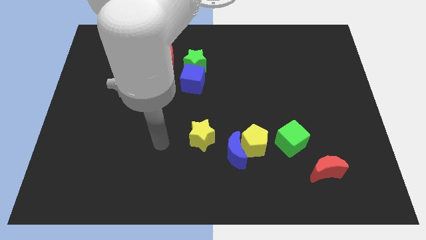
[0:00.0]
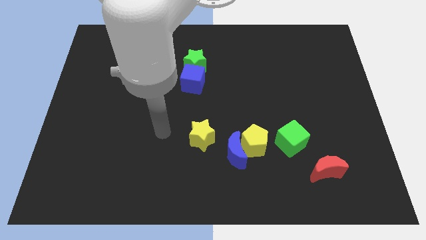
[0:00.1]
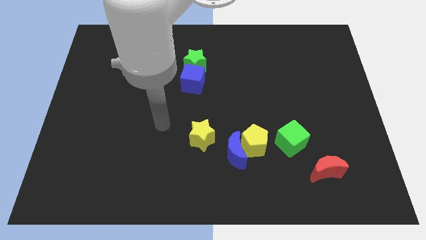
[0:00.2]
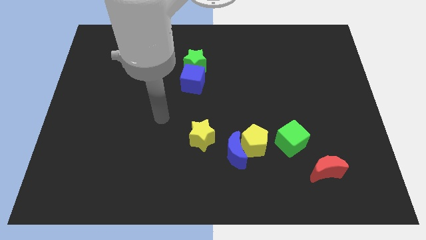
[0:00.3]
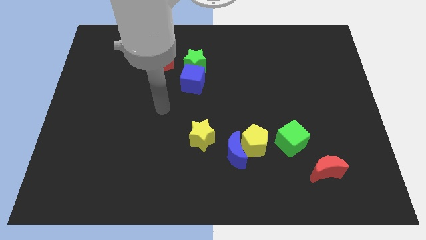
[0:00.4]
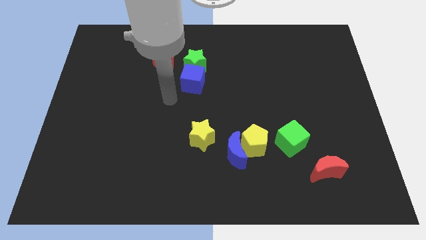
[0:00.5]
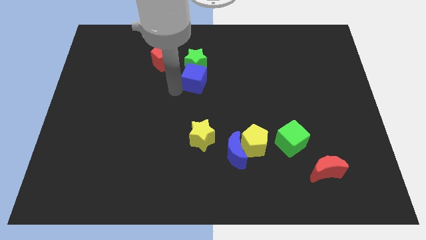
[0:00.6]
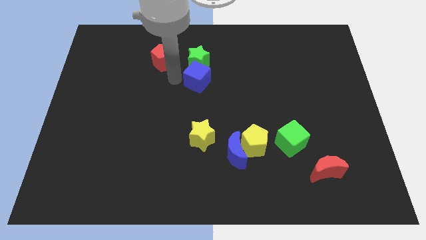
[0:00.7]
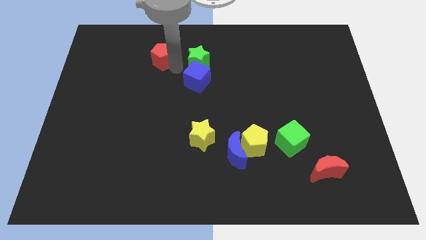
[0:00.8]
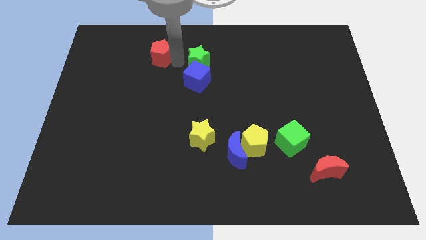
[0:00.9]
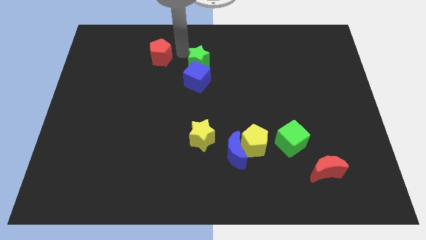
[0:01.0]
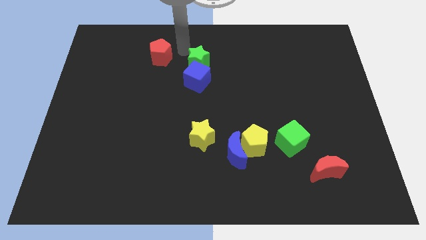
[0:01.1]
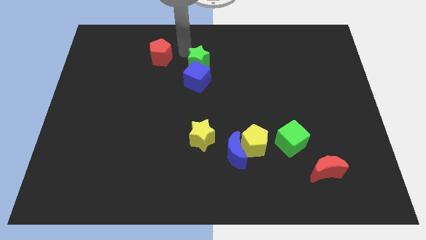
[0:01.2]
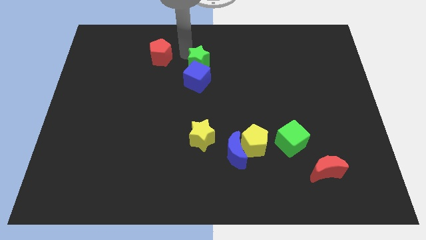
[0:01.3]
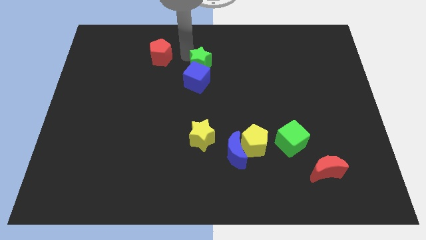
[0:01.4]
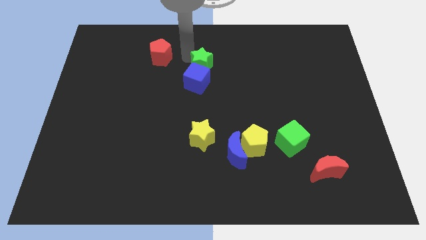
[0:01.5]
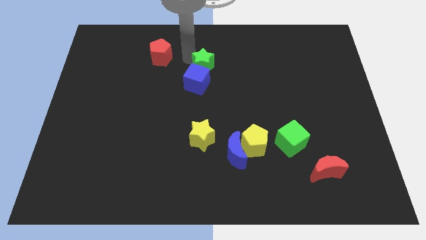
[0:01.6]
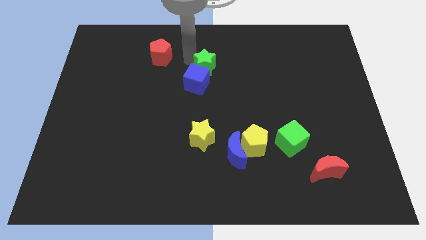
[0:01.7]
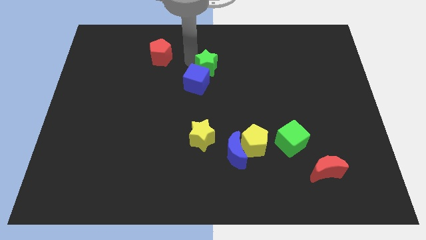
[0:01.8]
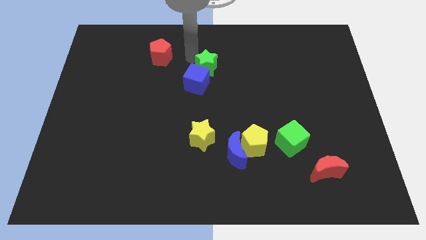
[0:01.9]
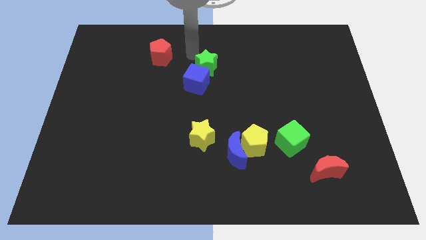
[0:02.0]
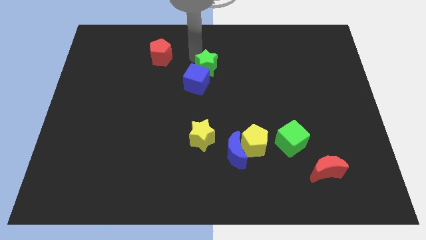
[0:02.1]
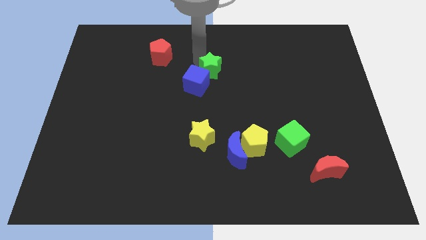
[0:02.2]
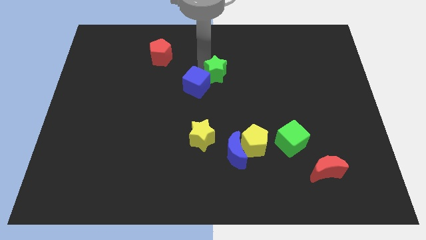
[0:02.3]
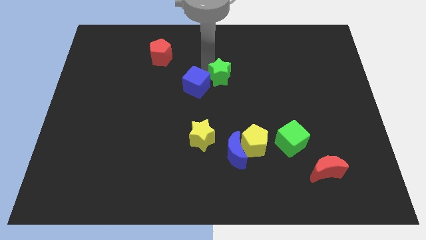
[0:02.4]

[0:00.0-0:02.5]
move the green star slightly diagonally downwards and to the right

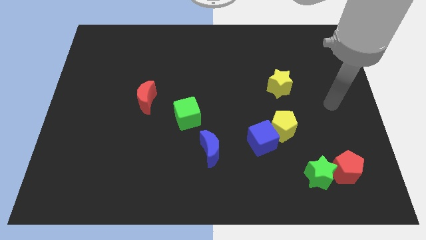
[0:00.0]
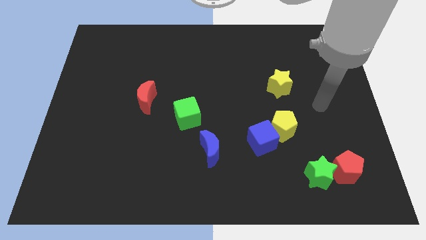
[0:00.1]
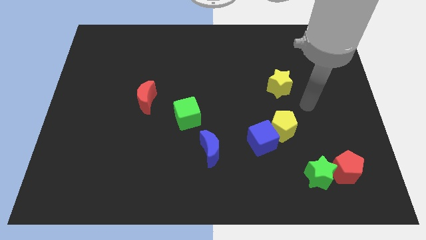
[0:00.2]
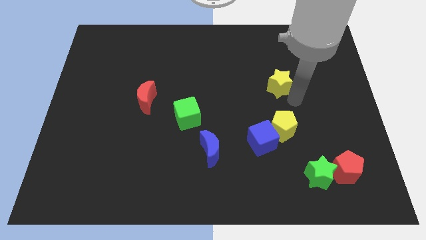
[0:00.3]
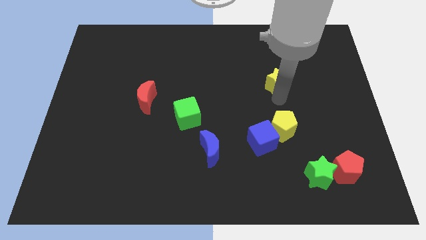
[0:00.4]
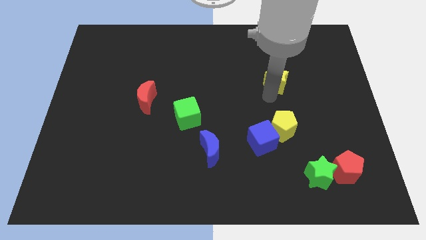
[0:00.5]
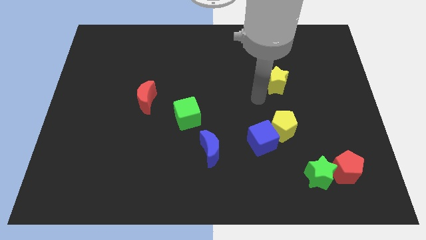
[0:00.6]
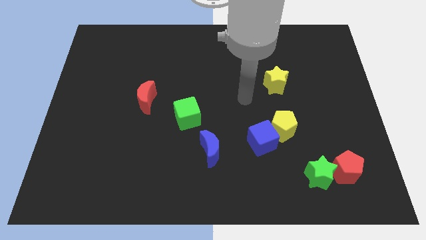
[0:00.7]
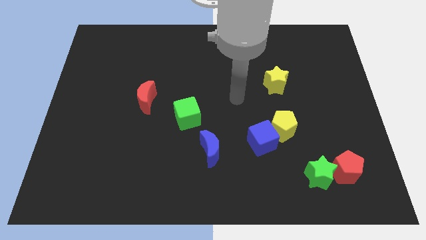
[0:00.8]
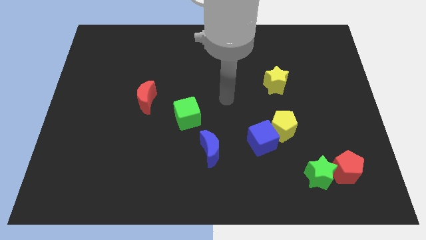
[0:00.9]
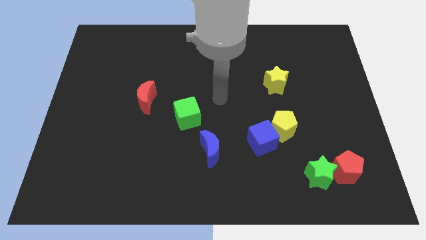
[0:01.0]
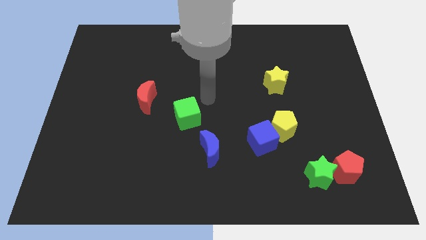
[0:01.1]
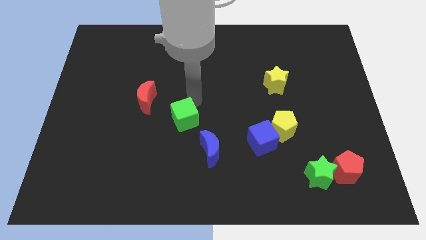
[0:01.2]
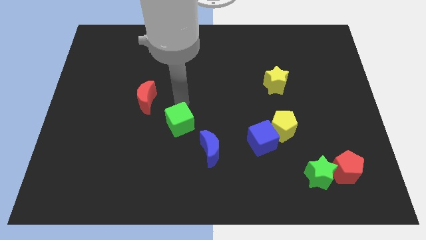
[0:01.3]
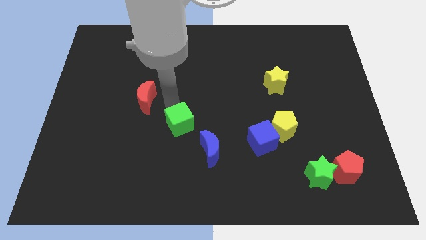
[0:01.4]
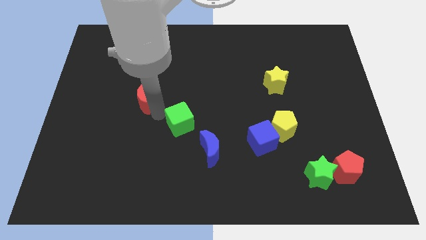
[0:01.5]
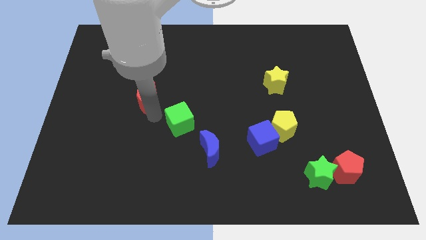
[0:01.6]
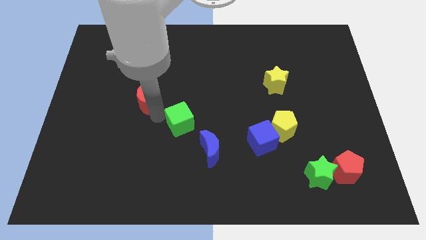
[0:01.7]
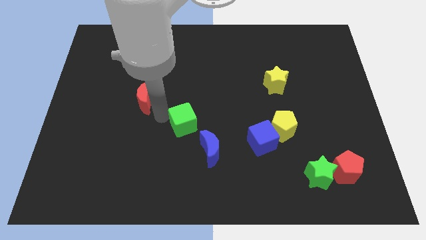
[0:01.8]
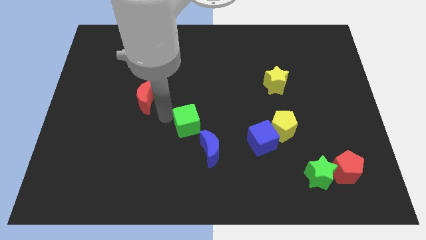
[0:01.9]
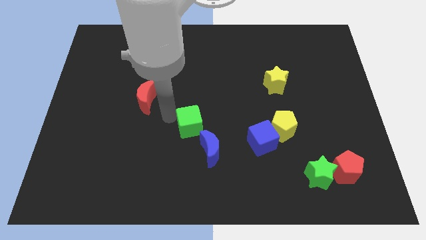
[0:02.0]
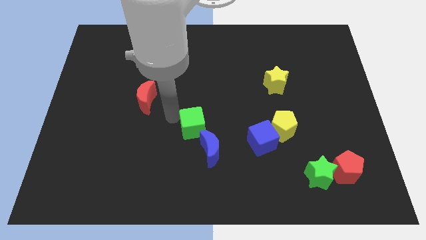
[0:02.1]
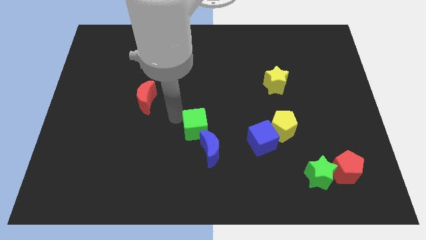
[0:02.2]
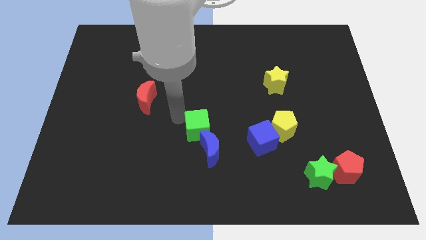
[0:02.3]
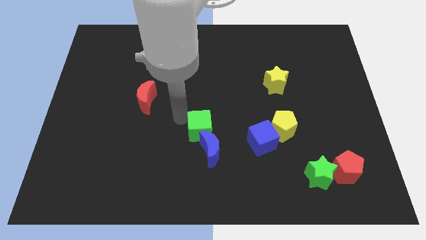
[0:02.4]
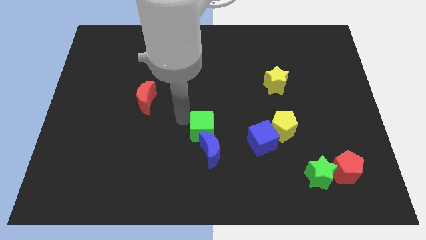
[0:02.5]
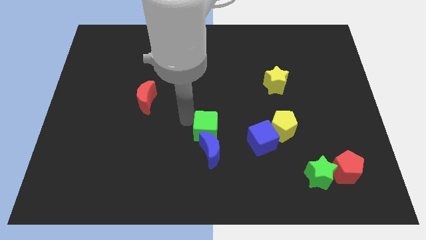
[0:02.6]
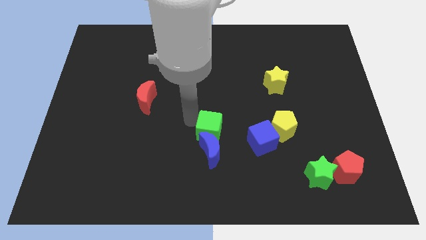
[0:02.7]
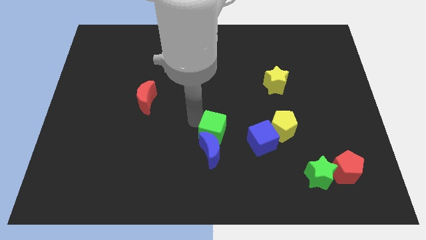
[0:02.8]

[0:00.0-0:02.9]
push the green cube downwards and right a little

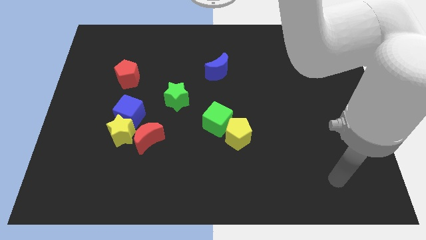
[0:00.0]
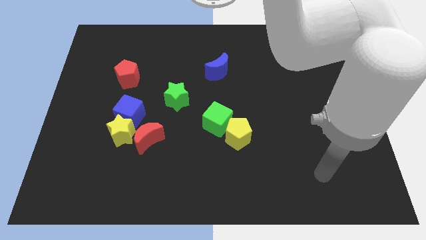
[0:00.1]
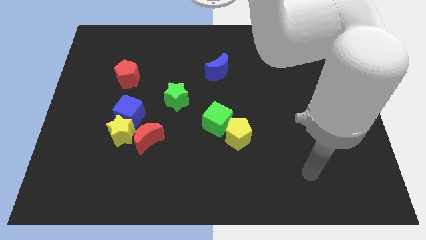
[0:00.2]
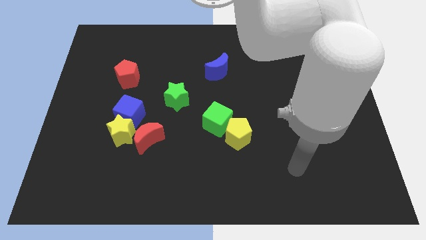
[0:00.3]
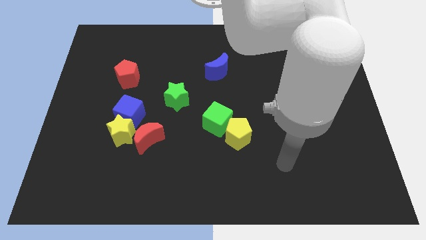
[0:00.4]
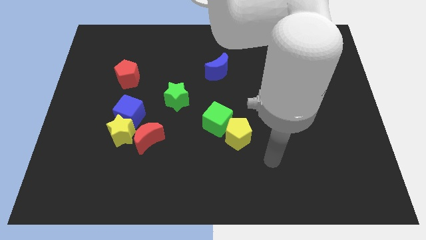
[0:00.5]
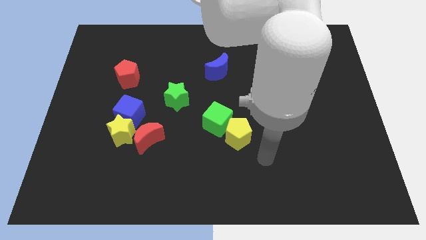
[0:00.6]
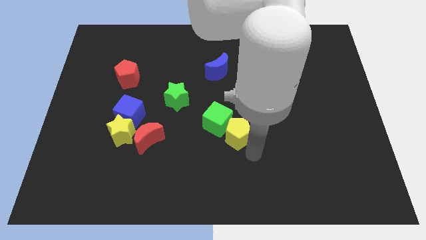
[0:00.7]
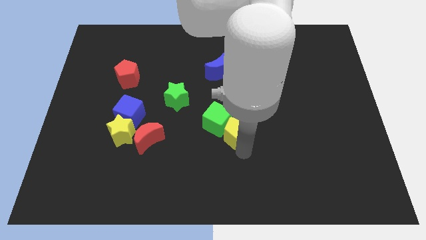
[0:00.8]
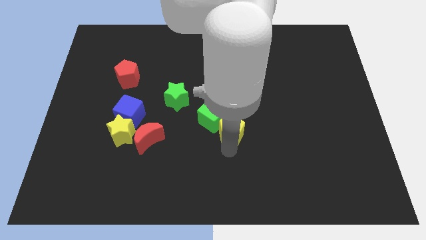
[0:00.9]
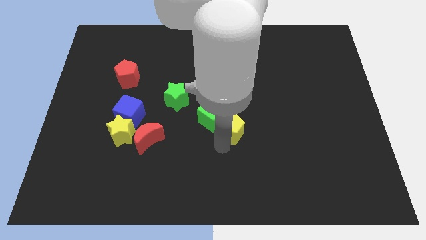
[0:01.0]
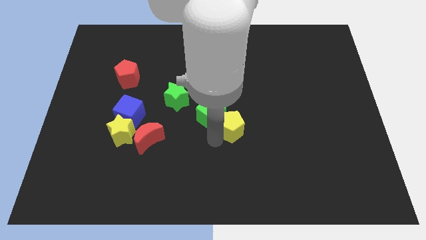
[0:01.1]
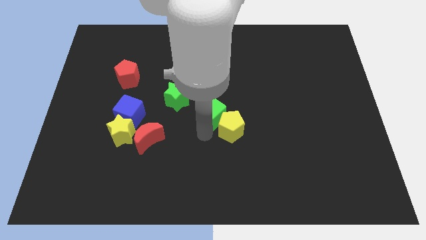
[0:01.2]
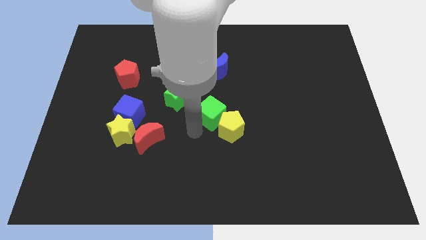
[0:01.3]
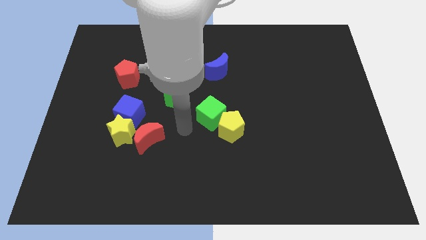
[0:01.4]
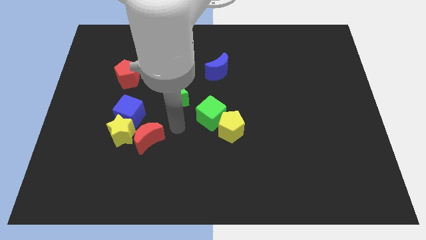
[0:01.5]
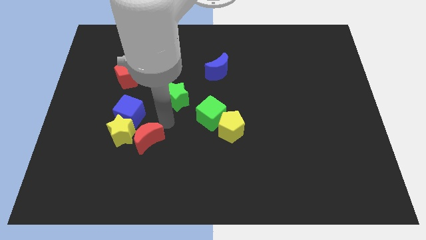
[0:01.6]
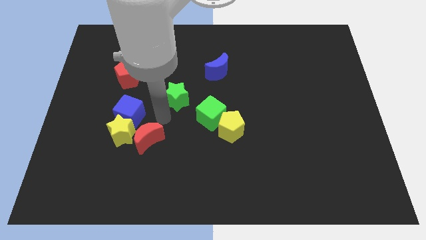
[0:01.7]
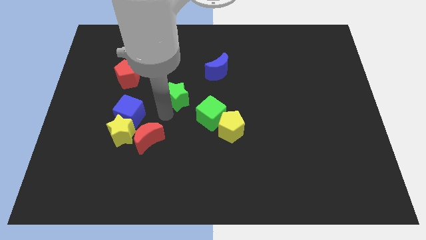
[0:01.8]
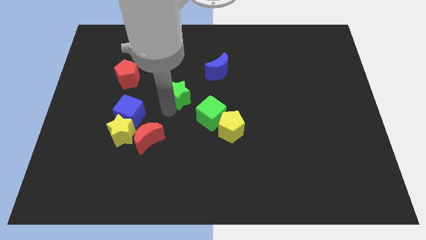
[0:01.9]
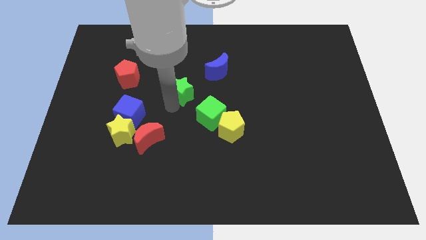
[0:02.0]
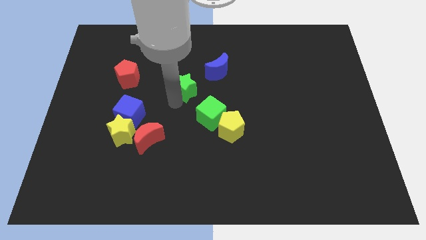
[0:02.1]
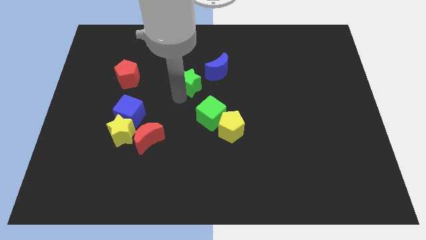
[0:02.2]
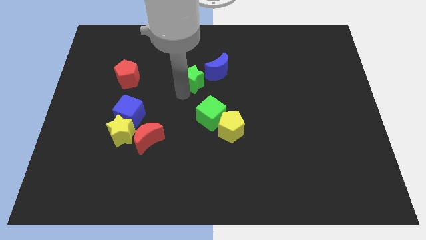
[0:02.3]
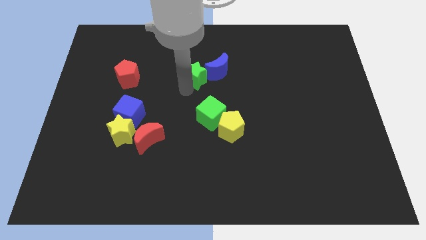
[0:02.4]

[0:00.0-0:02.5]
slightly push the green star upwards and to the right diagonally
